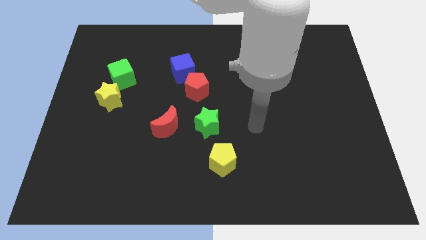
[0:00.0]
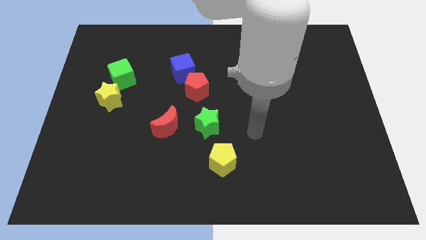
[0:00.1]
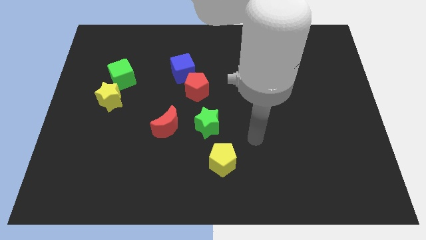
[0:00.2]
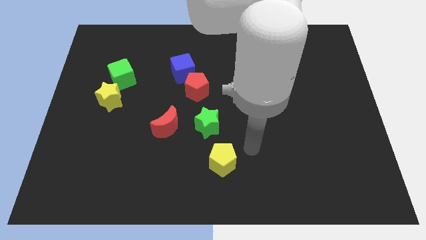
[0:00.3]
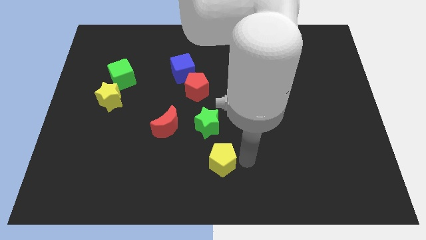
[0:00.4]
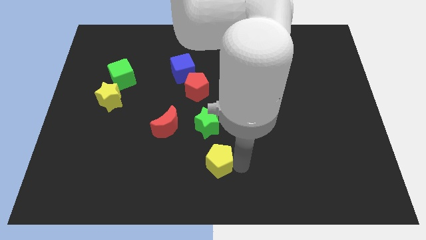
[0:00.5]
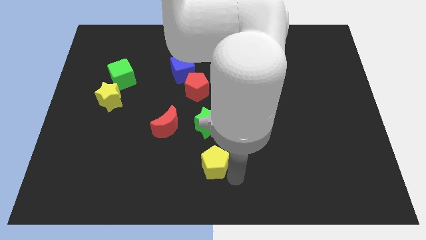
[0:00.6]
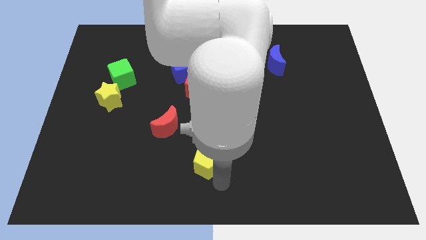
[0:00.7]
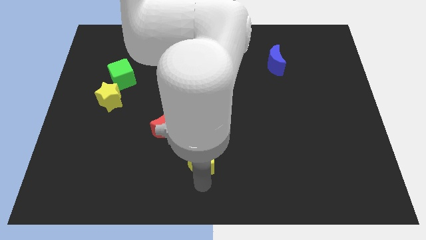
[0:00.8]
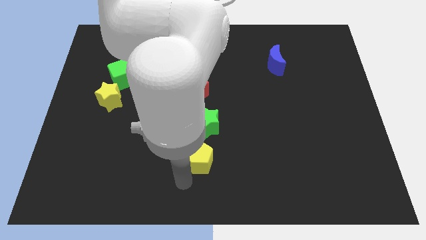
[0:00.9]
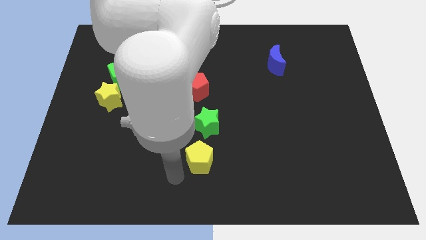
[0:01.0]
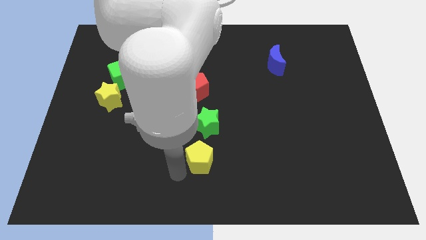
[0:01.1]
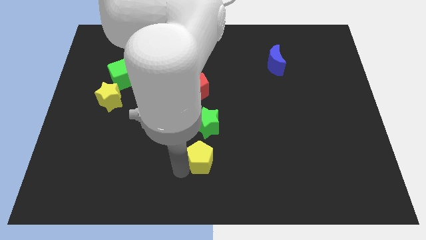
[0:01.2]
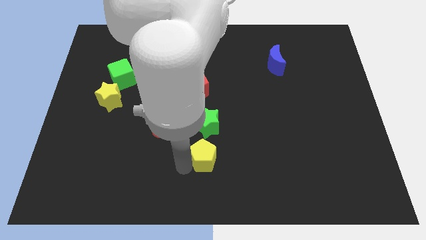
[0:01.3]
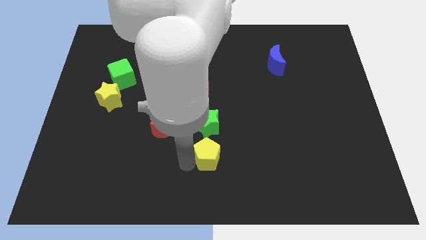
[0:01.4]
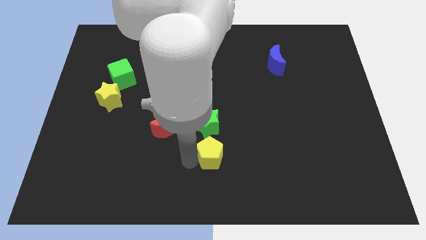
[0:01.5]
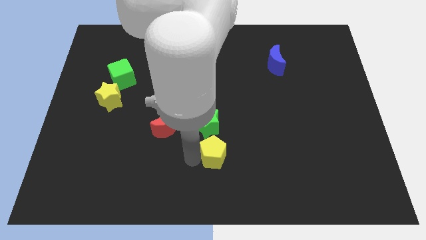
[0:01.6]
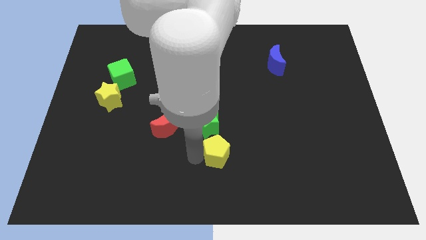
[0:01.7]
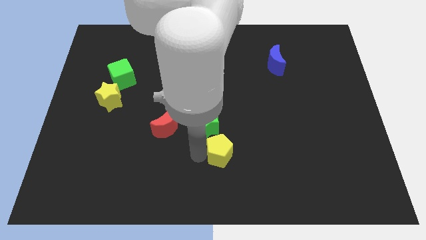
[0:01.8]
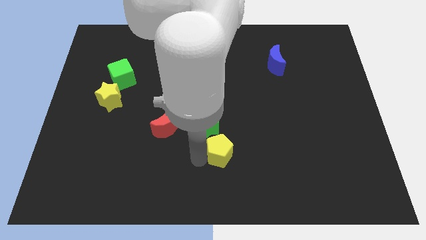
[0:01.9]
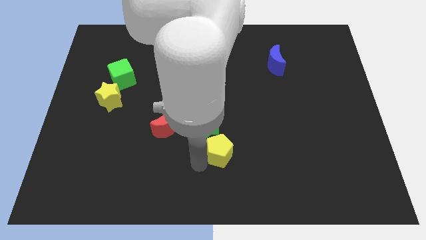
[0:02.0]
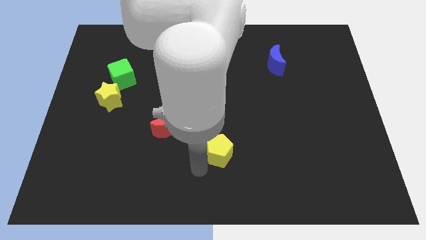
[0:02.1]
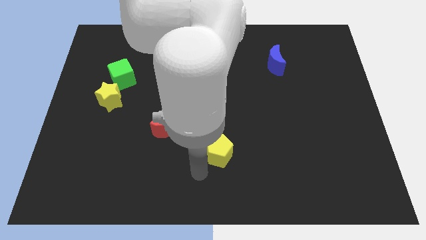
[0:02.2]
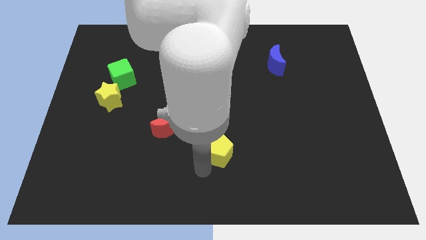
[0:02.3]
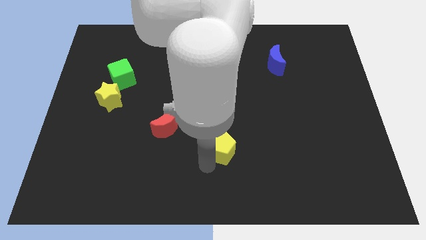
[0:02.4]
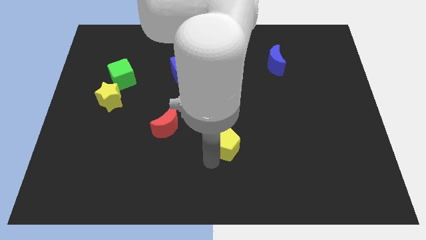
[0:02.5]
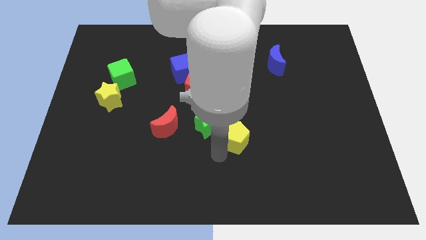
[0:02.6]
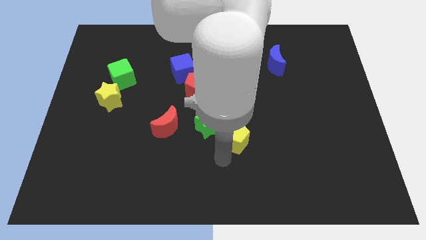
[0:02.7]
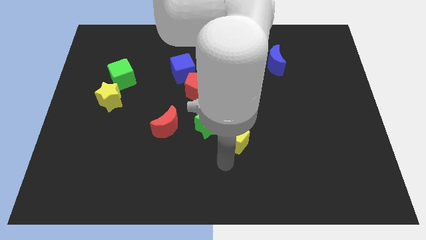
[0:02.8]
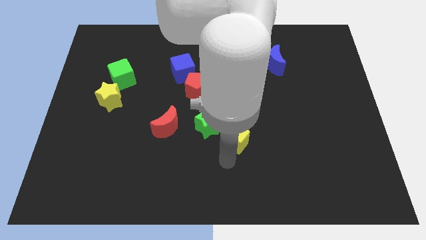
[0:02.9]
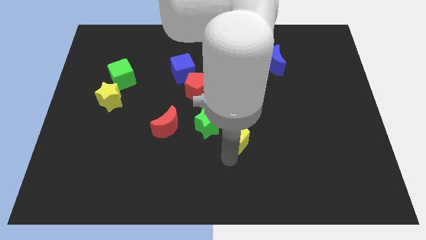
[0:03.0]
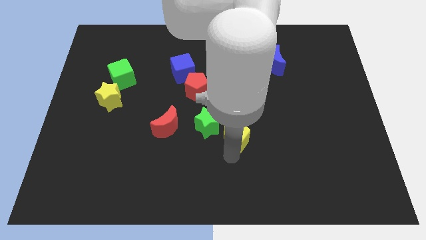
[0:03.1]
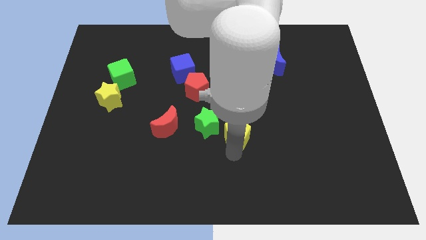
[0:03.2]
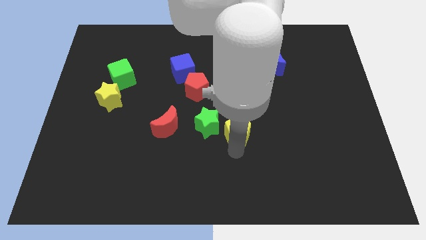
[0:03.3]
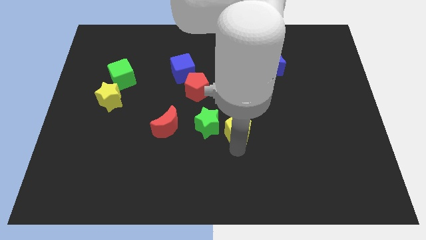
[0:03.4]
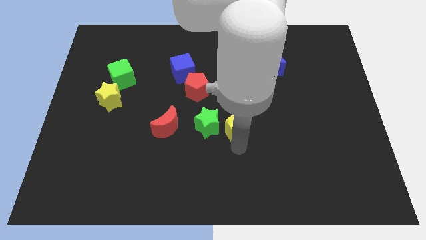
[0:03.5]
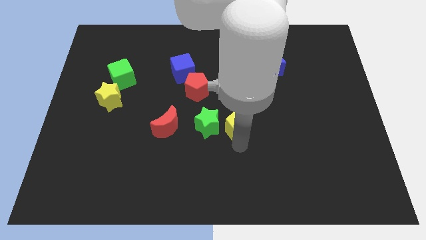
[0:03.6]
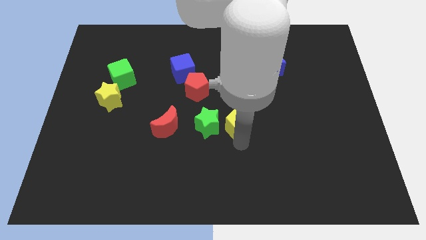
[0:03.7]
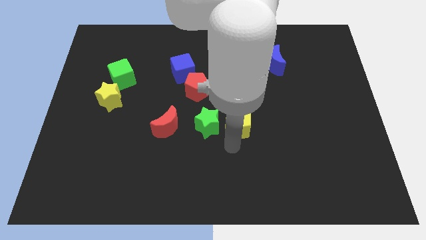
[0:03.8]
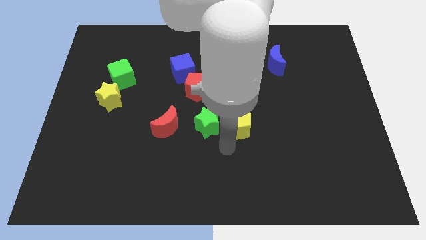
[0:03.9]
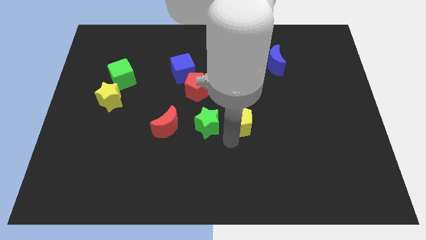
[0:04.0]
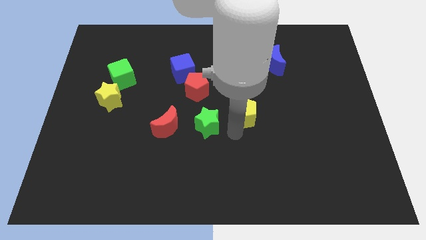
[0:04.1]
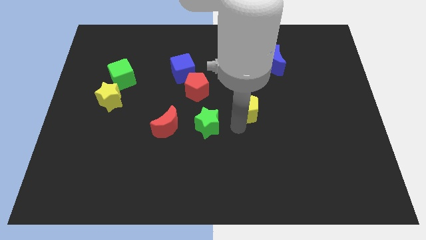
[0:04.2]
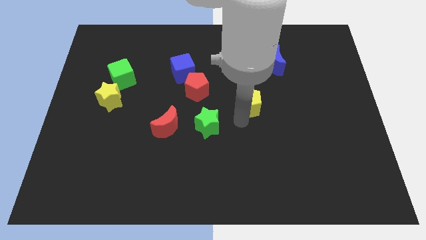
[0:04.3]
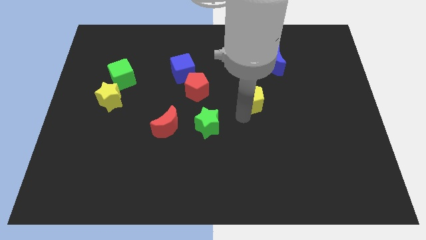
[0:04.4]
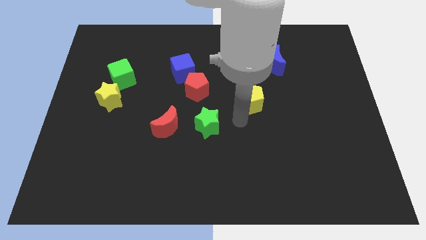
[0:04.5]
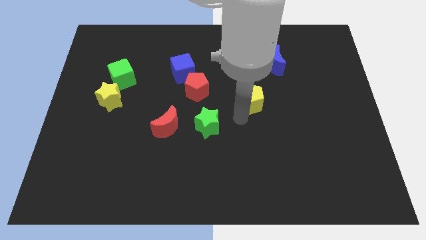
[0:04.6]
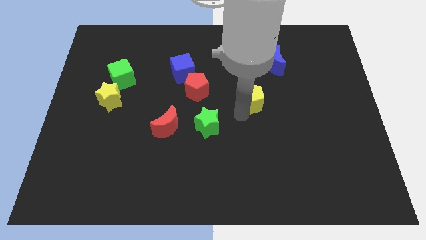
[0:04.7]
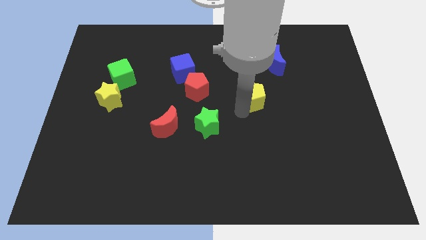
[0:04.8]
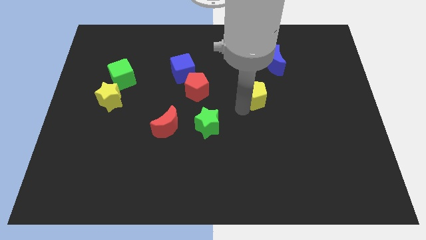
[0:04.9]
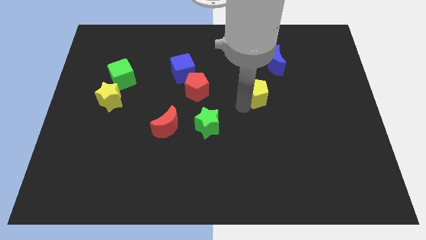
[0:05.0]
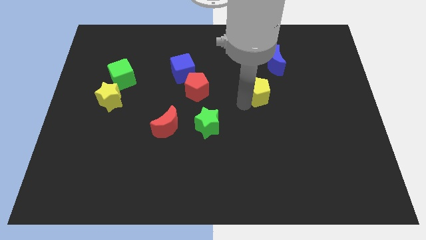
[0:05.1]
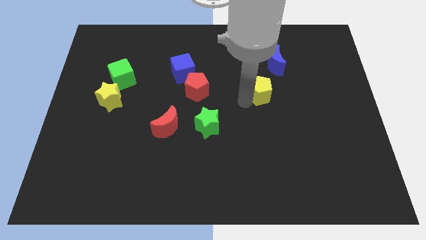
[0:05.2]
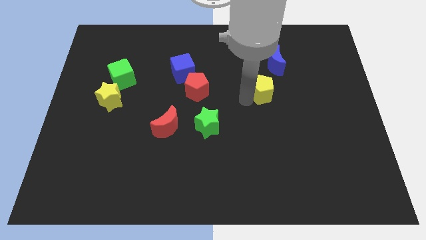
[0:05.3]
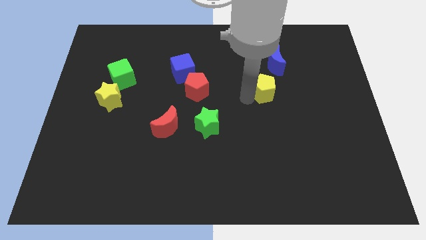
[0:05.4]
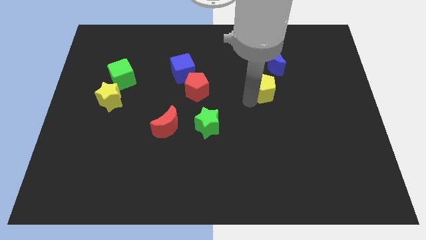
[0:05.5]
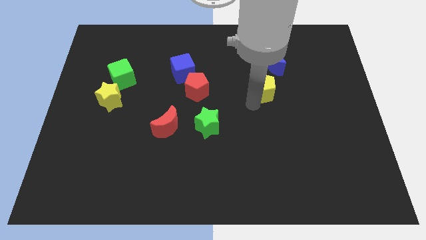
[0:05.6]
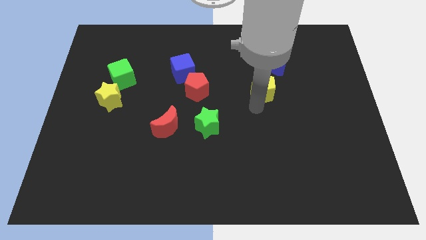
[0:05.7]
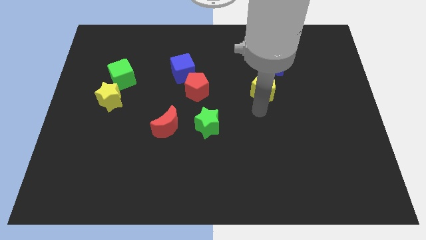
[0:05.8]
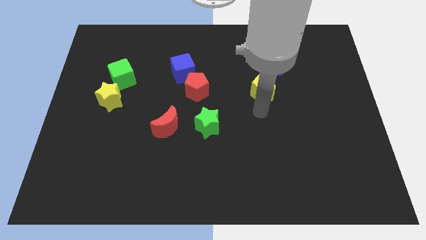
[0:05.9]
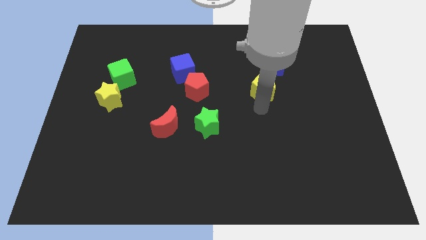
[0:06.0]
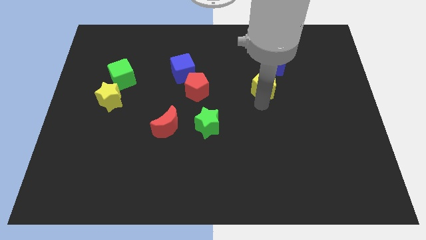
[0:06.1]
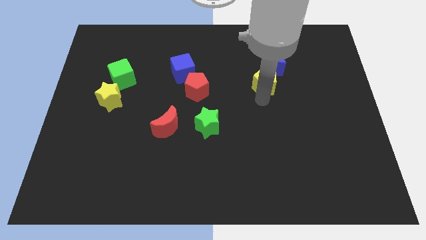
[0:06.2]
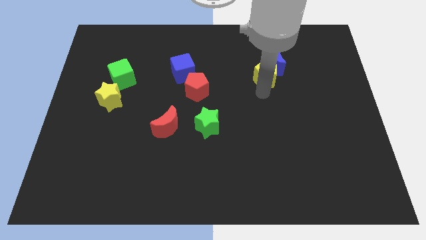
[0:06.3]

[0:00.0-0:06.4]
push the yellow pentagon next to the blue moon
